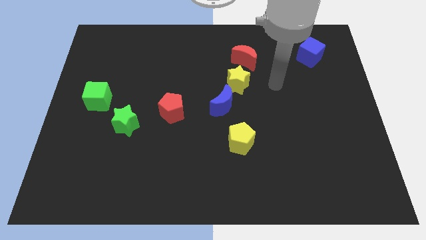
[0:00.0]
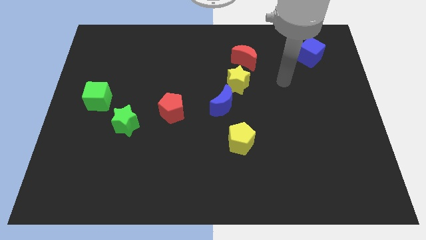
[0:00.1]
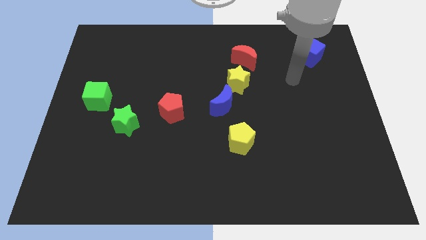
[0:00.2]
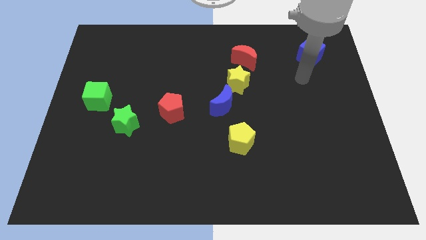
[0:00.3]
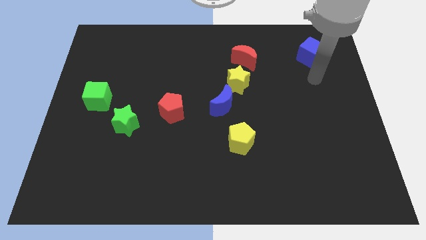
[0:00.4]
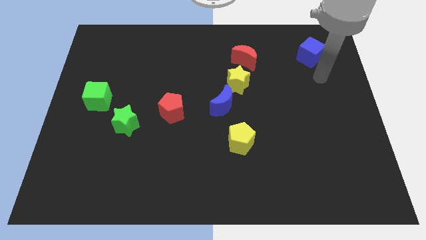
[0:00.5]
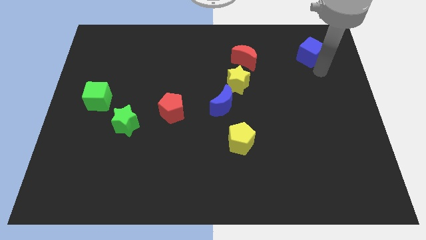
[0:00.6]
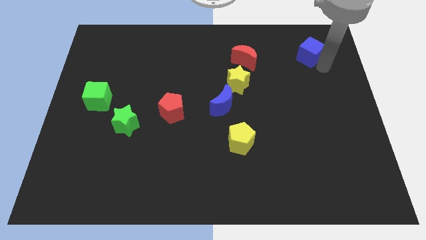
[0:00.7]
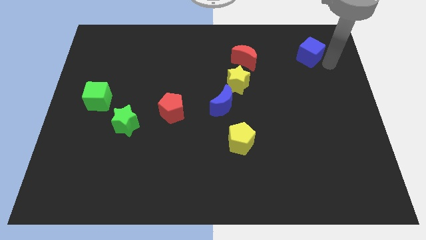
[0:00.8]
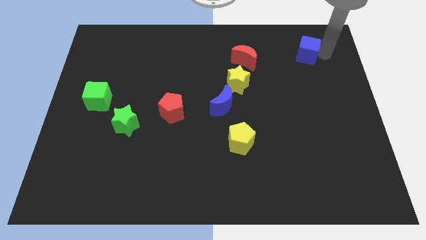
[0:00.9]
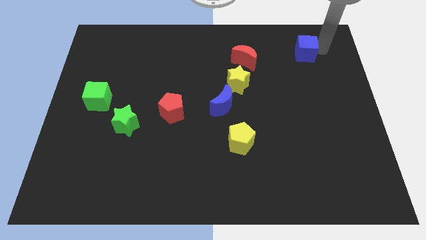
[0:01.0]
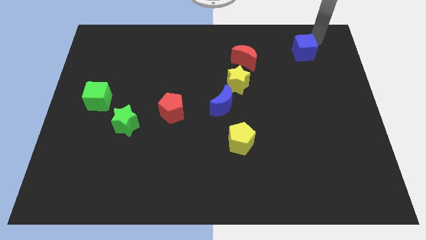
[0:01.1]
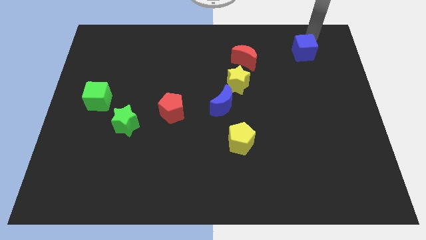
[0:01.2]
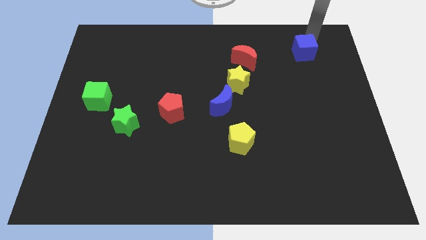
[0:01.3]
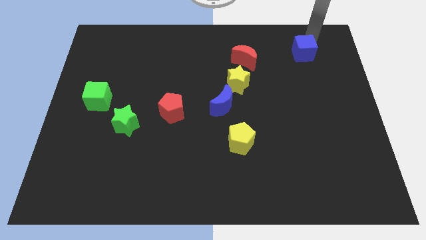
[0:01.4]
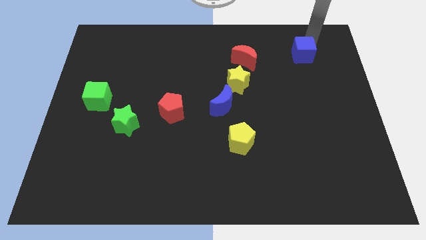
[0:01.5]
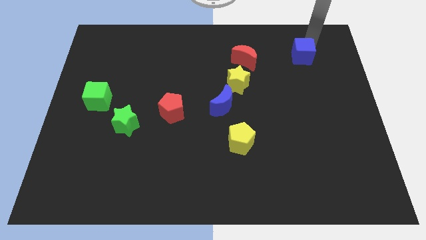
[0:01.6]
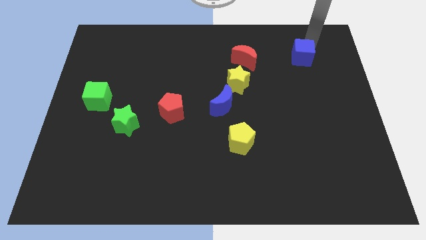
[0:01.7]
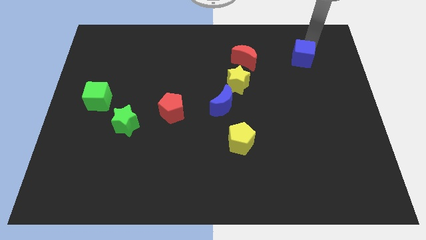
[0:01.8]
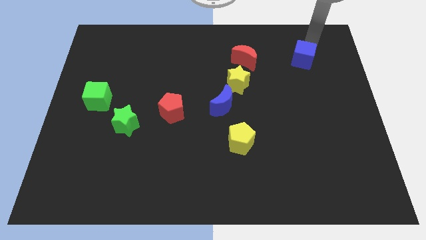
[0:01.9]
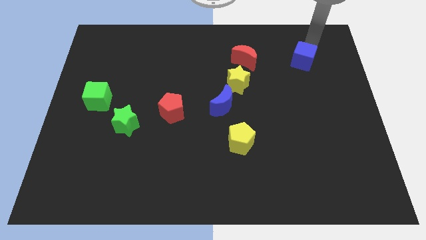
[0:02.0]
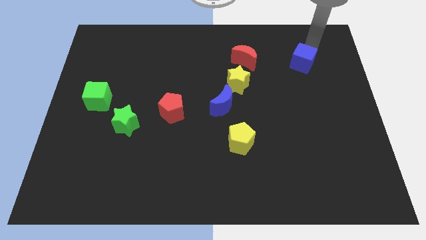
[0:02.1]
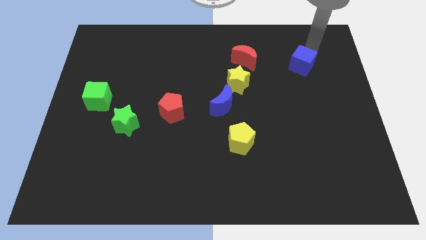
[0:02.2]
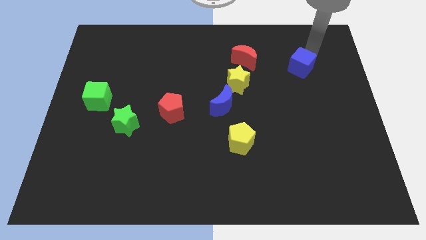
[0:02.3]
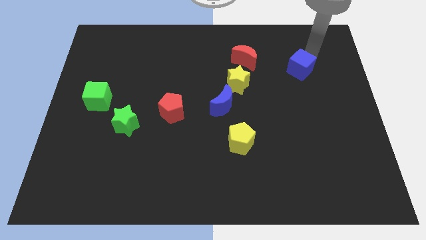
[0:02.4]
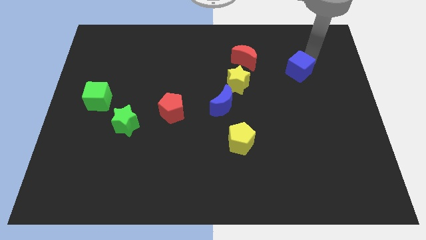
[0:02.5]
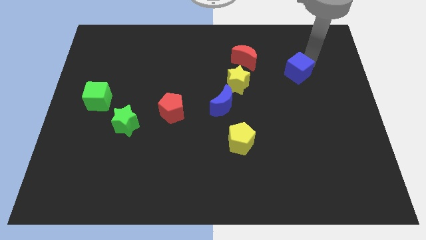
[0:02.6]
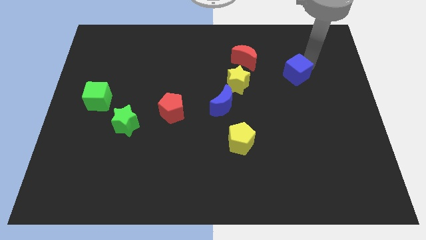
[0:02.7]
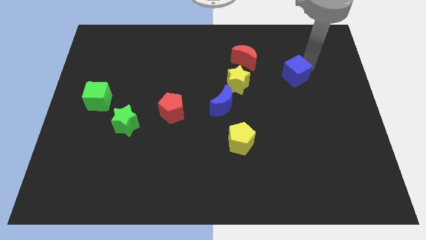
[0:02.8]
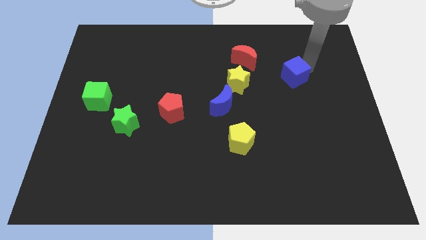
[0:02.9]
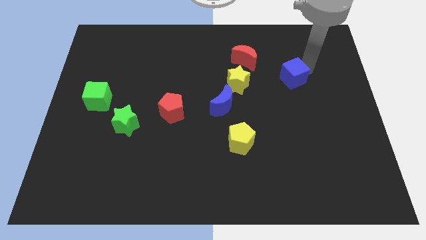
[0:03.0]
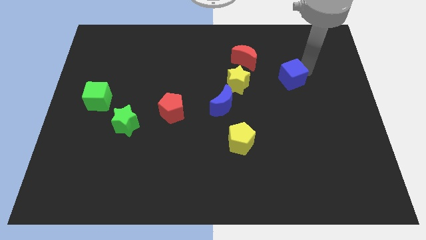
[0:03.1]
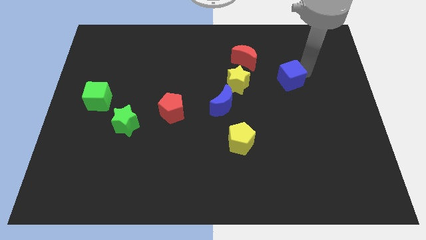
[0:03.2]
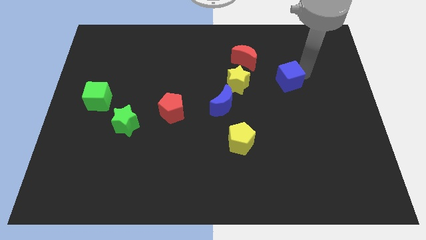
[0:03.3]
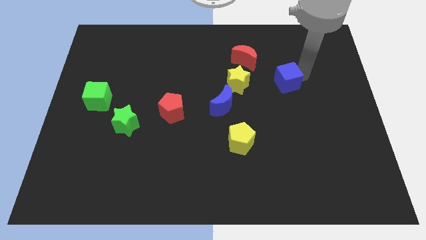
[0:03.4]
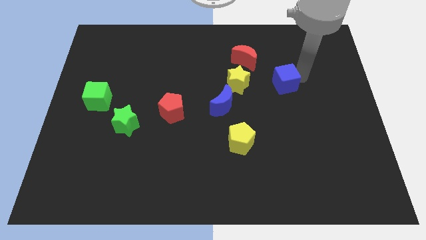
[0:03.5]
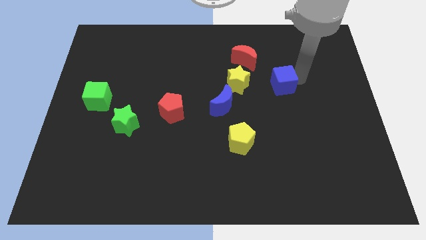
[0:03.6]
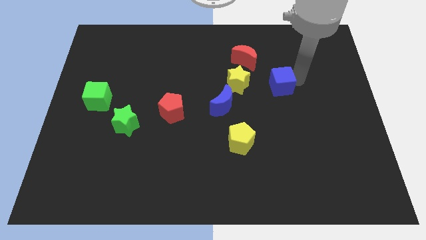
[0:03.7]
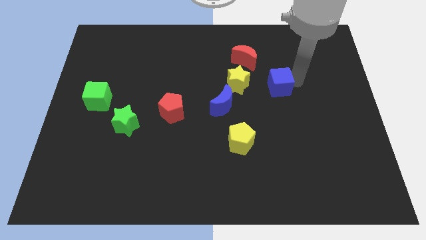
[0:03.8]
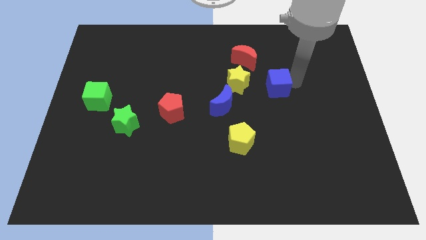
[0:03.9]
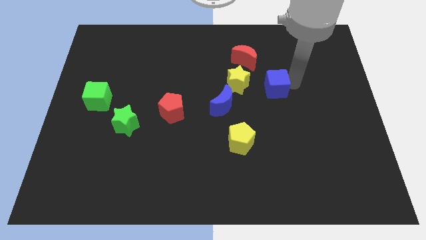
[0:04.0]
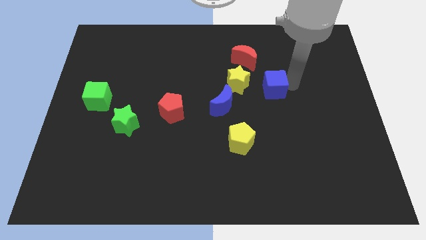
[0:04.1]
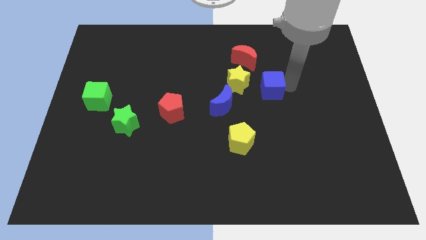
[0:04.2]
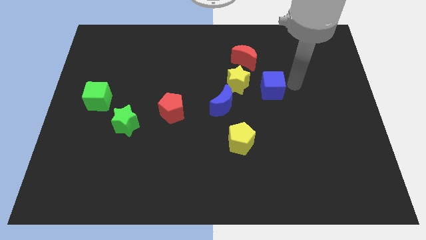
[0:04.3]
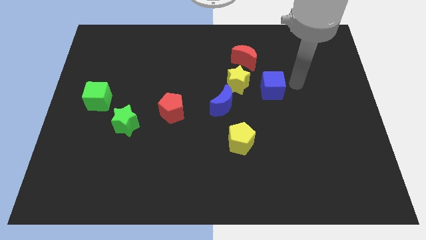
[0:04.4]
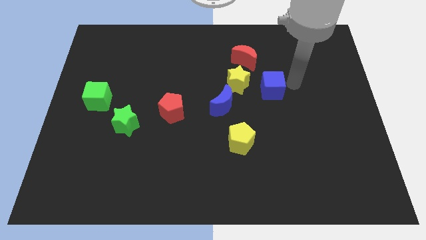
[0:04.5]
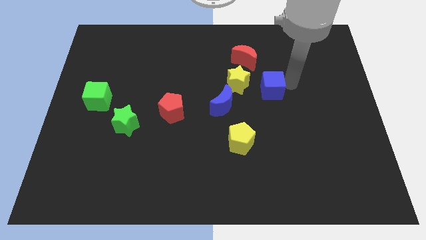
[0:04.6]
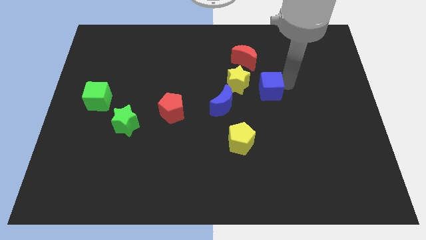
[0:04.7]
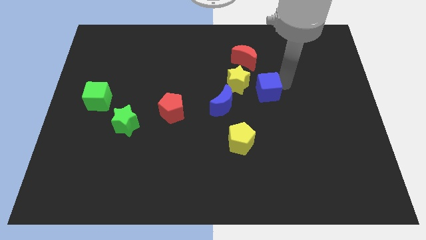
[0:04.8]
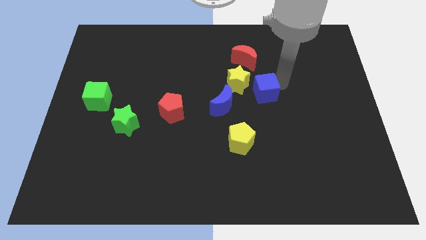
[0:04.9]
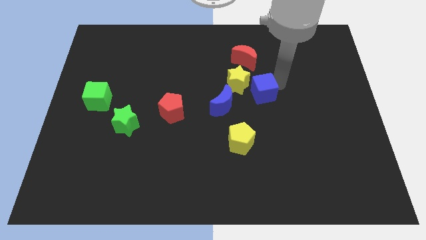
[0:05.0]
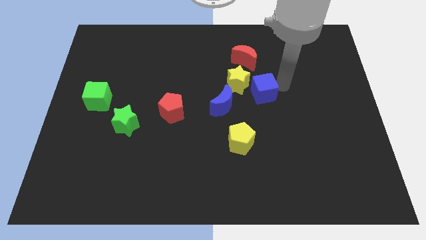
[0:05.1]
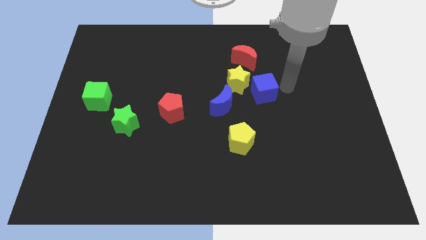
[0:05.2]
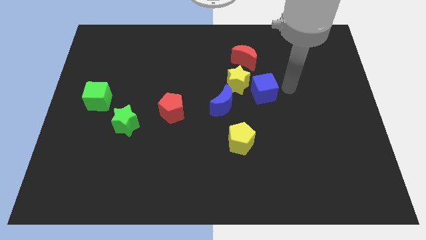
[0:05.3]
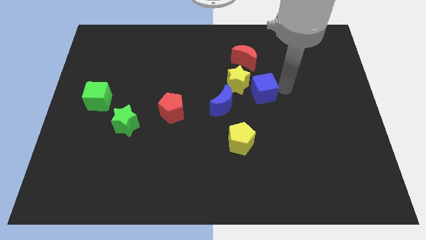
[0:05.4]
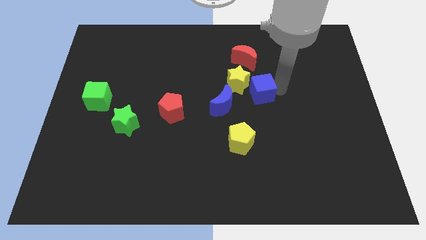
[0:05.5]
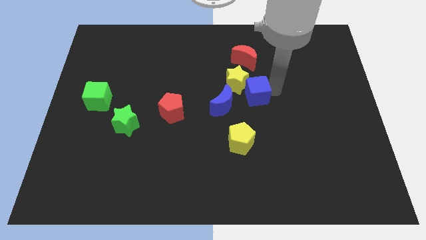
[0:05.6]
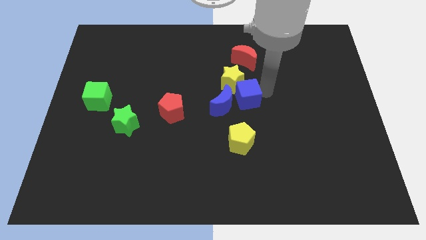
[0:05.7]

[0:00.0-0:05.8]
slide the blue cube next to the blue moon

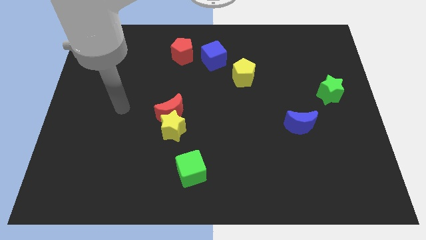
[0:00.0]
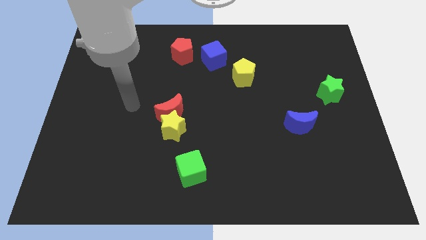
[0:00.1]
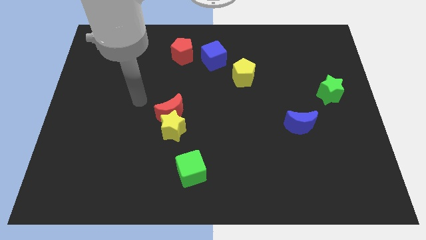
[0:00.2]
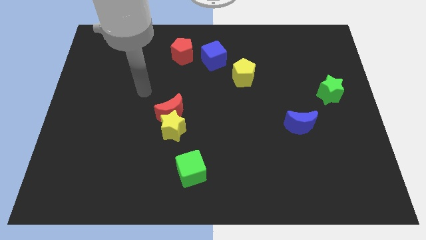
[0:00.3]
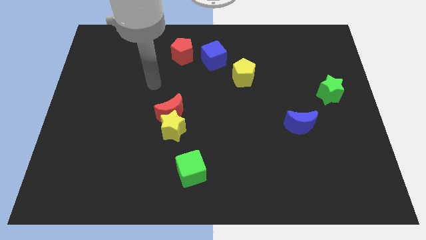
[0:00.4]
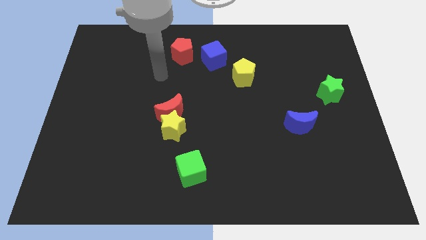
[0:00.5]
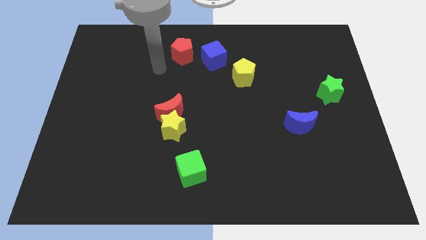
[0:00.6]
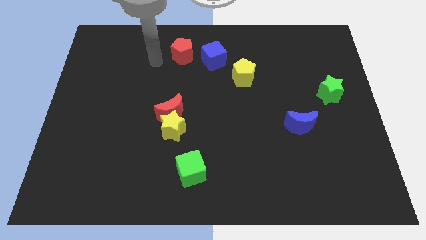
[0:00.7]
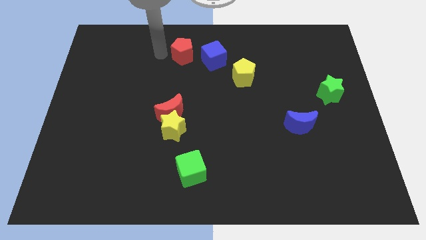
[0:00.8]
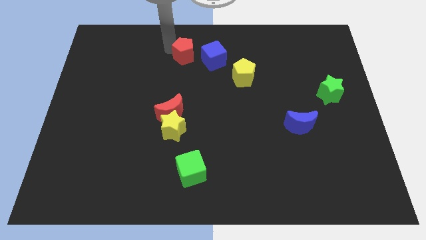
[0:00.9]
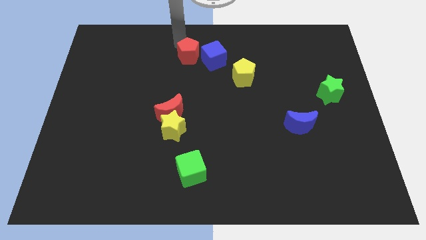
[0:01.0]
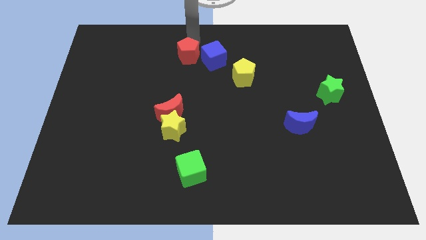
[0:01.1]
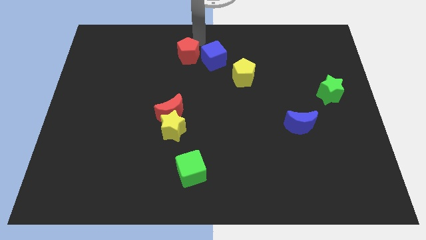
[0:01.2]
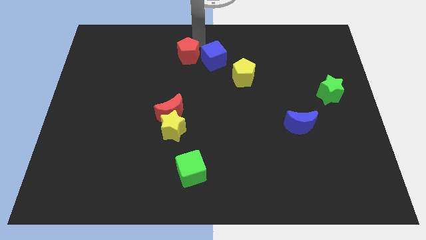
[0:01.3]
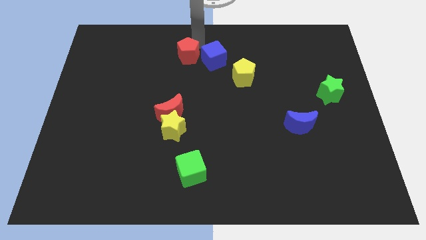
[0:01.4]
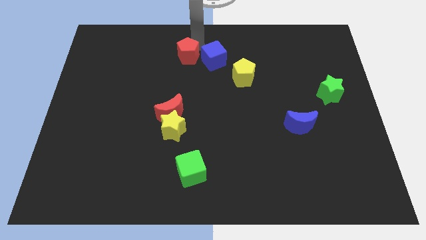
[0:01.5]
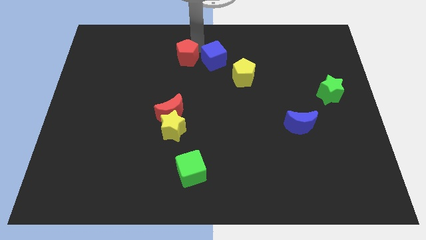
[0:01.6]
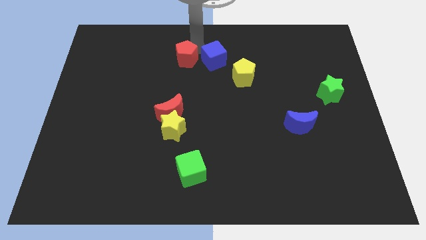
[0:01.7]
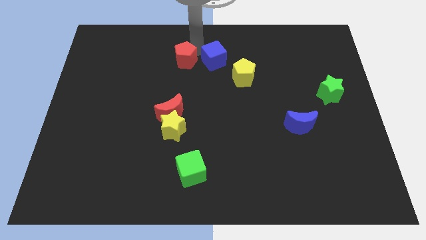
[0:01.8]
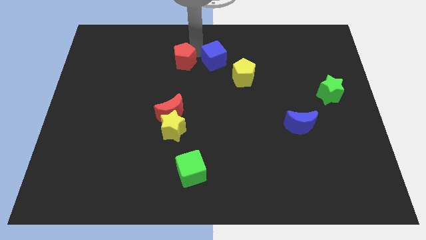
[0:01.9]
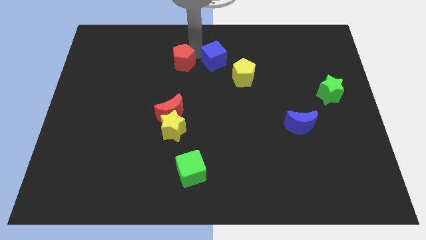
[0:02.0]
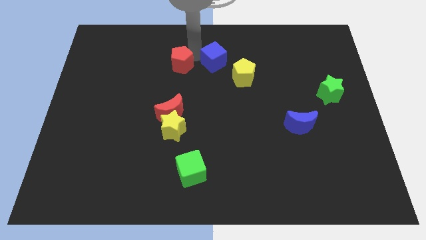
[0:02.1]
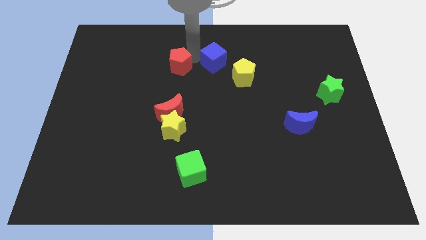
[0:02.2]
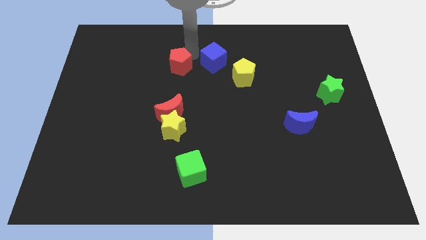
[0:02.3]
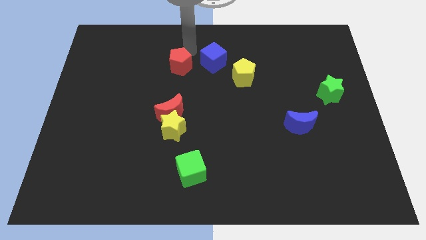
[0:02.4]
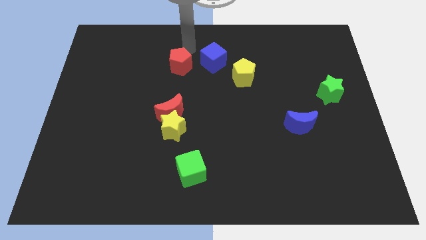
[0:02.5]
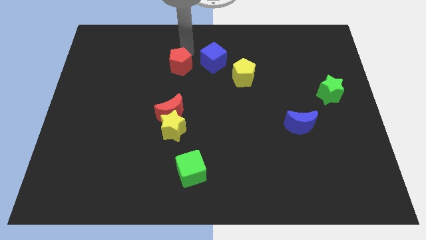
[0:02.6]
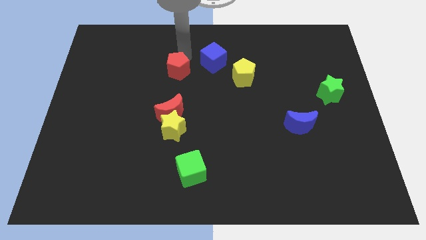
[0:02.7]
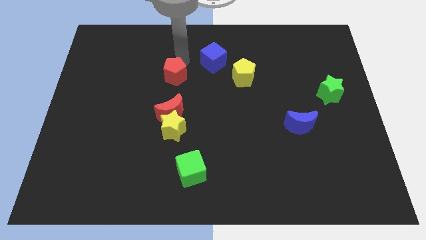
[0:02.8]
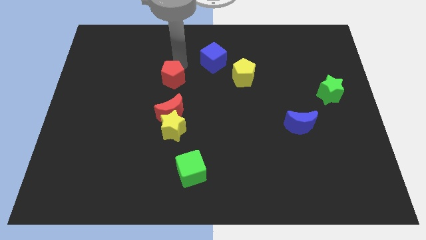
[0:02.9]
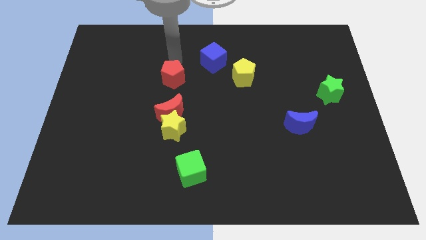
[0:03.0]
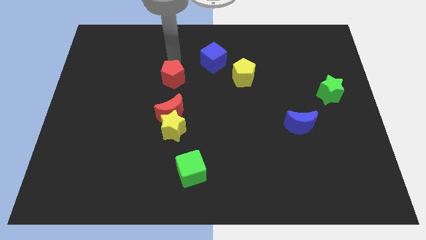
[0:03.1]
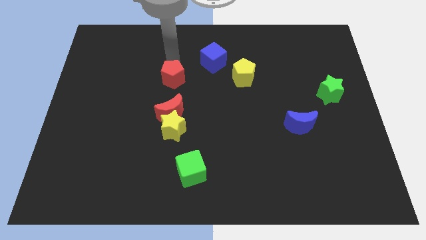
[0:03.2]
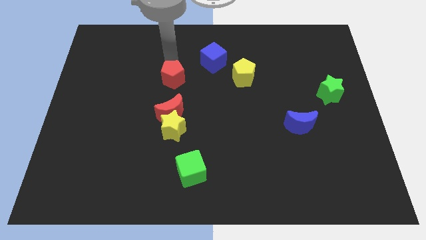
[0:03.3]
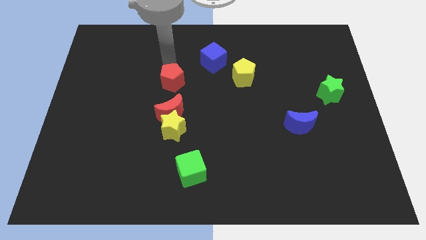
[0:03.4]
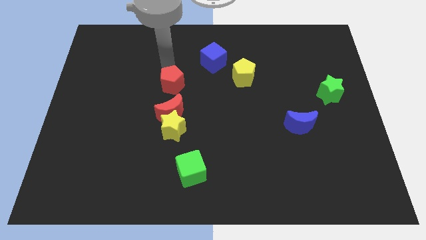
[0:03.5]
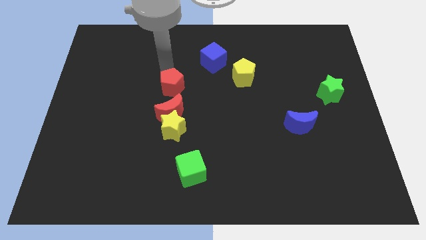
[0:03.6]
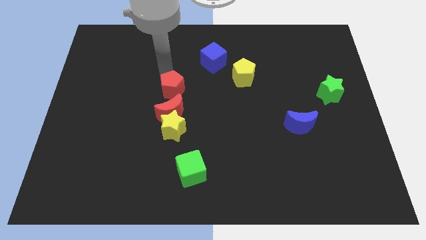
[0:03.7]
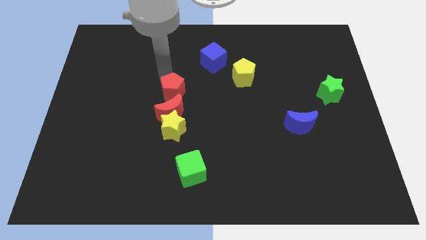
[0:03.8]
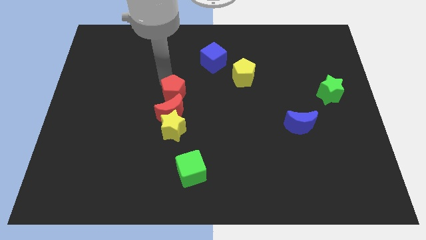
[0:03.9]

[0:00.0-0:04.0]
put the red pentagon to the red moon
